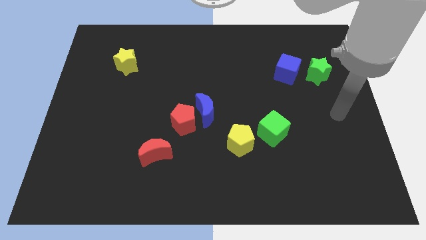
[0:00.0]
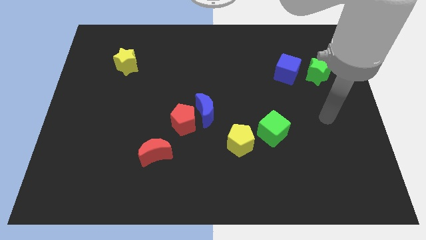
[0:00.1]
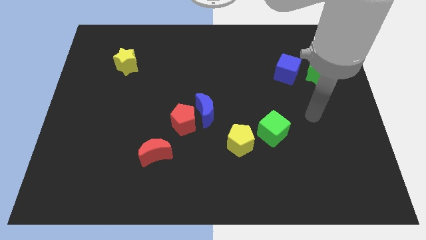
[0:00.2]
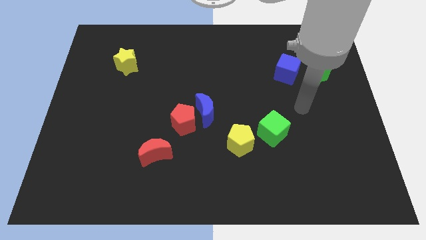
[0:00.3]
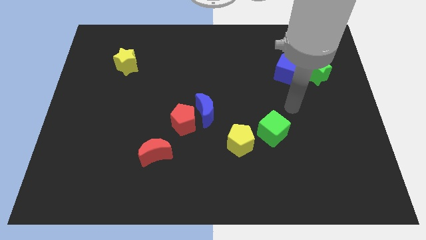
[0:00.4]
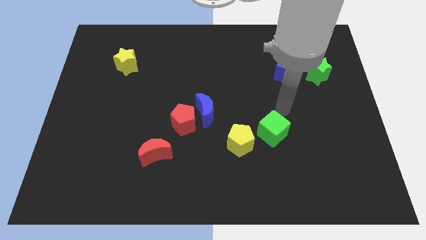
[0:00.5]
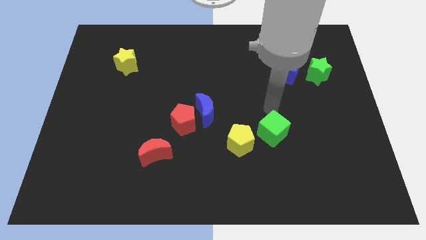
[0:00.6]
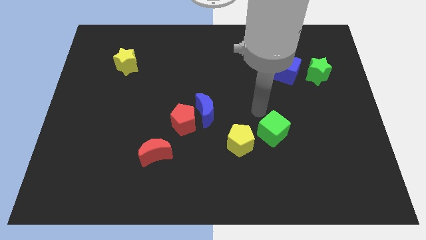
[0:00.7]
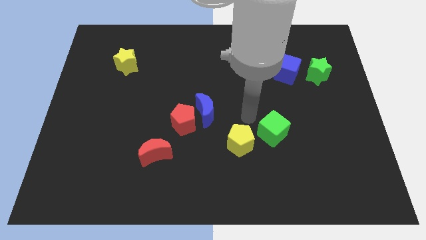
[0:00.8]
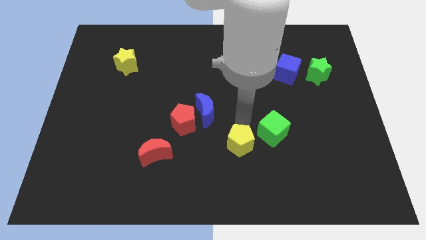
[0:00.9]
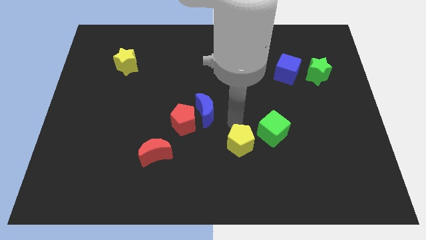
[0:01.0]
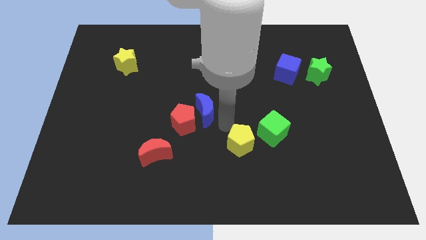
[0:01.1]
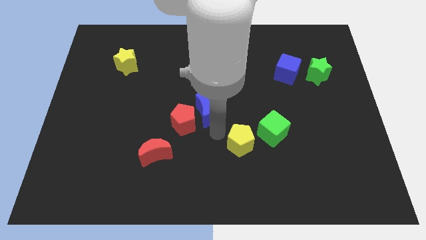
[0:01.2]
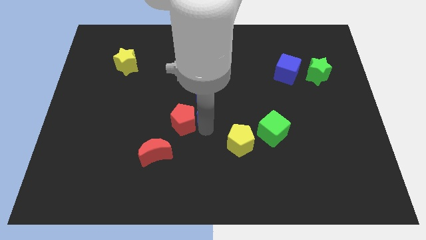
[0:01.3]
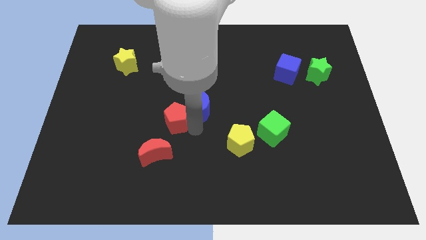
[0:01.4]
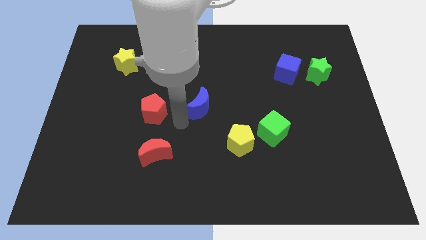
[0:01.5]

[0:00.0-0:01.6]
separate the blue moon from the red pentagon

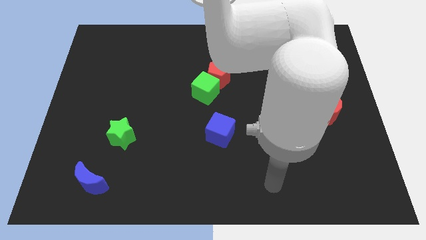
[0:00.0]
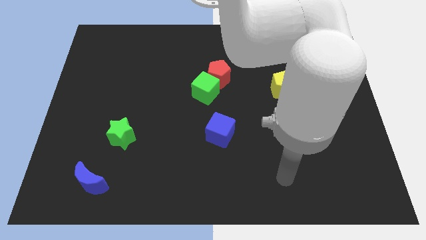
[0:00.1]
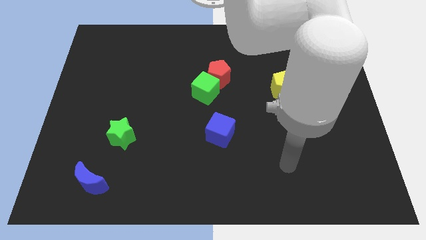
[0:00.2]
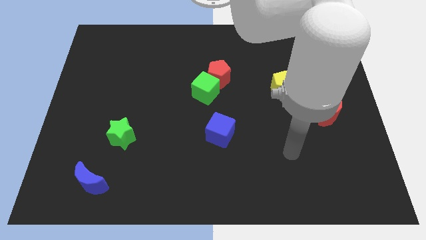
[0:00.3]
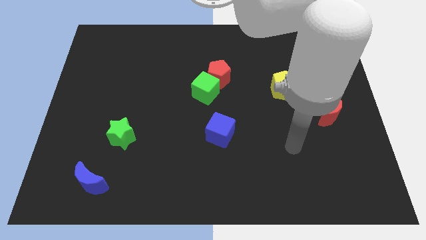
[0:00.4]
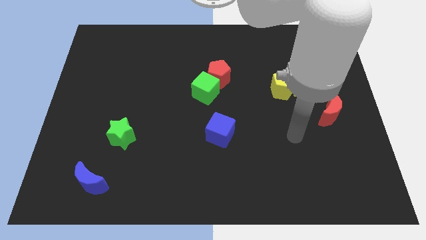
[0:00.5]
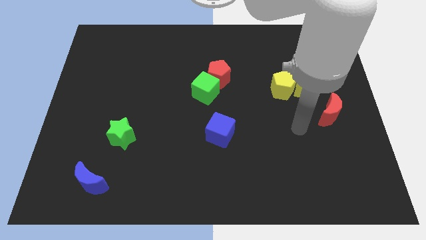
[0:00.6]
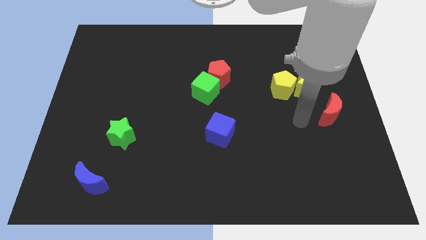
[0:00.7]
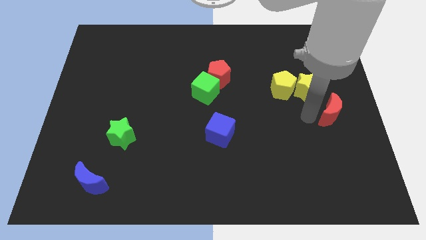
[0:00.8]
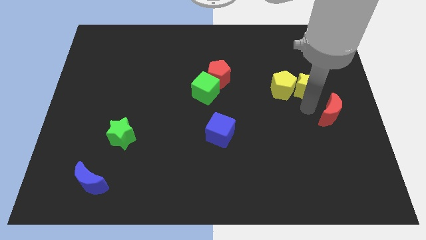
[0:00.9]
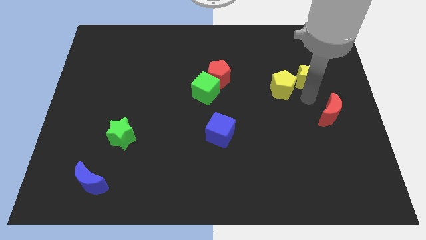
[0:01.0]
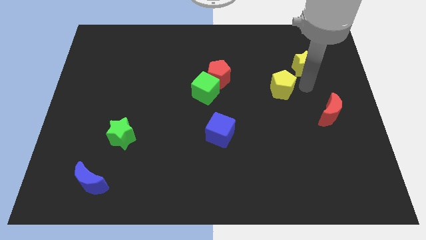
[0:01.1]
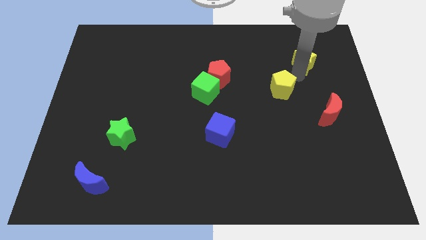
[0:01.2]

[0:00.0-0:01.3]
pull the yellow pentagon apart from the yellow star

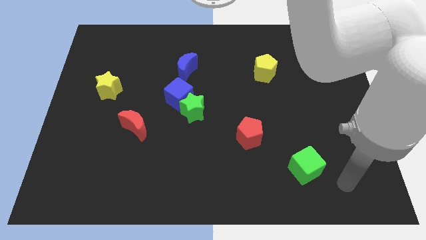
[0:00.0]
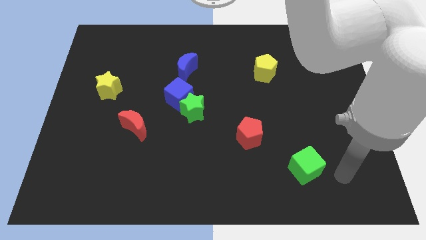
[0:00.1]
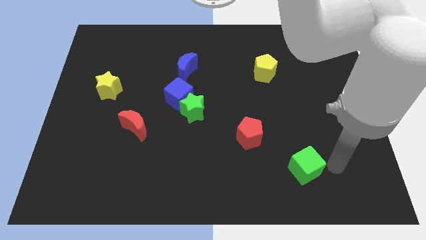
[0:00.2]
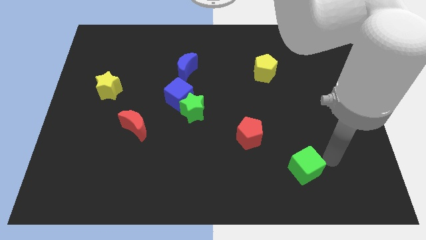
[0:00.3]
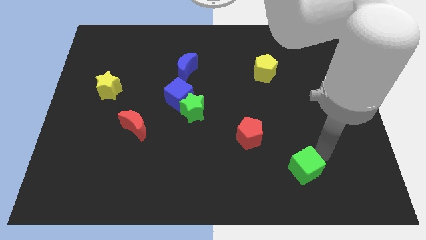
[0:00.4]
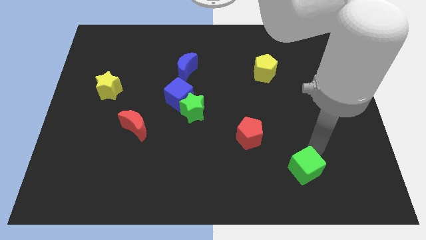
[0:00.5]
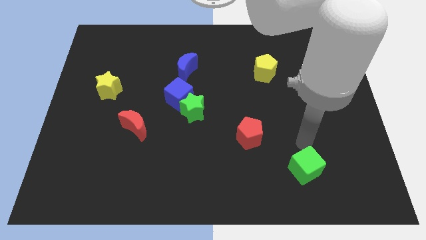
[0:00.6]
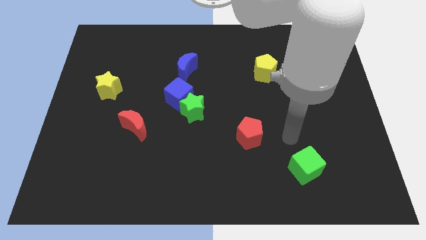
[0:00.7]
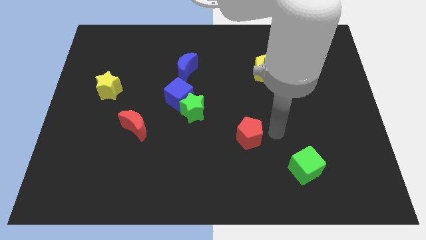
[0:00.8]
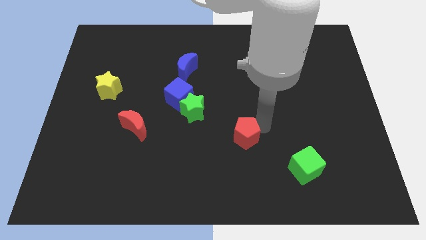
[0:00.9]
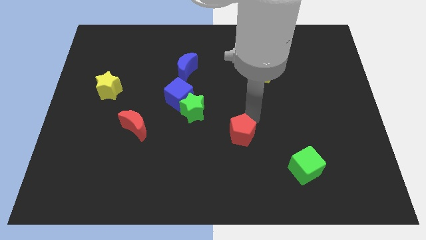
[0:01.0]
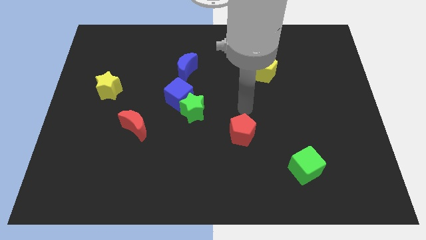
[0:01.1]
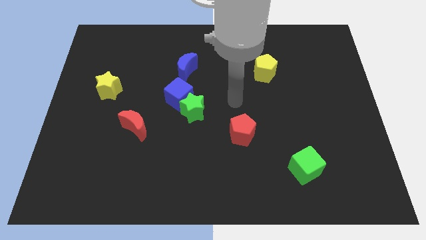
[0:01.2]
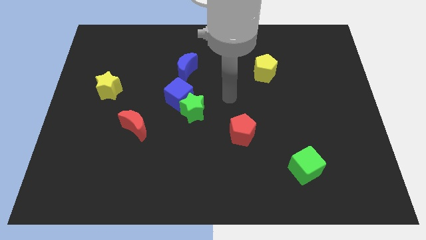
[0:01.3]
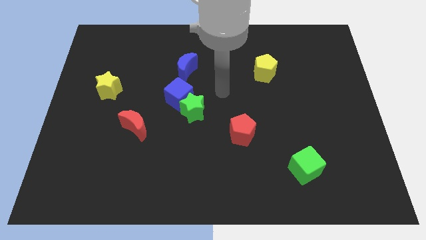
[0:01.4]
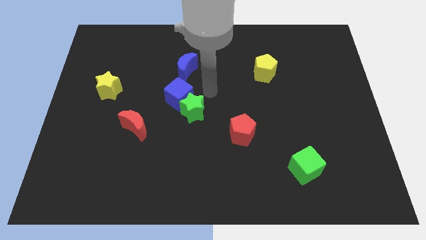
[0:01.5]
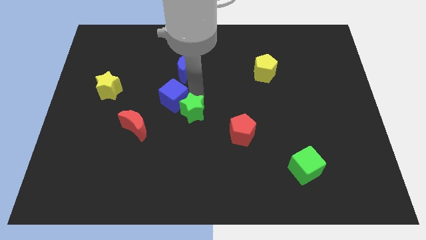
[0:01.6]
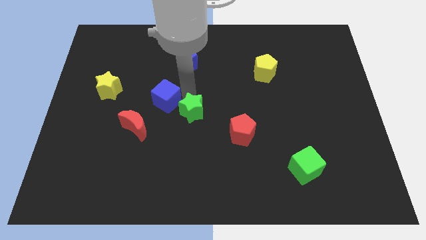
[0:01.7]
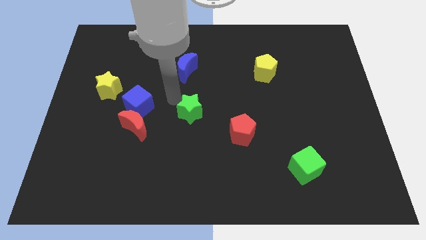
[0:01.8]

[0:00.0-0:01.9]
pull the green star apart from the blue cube

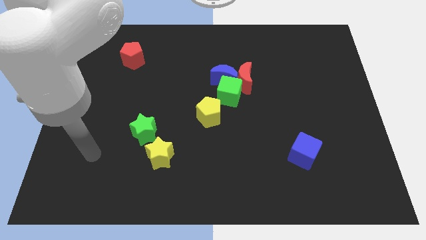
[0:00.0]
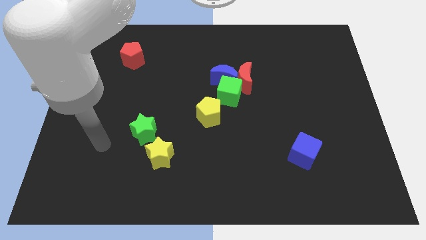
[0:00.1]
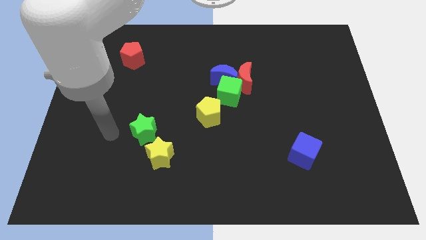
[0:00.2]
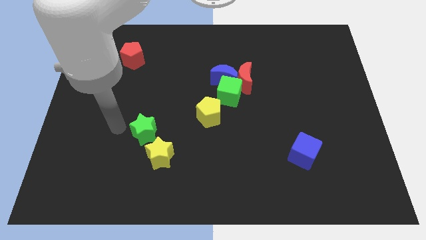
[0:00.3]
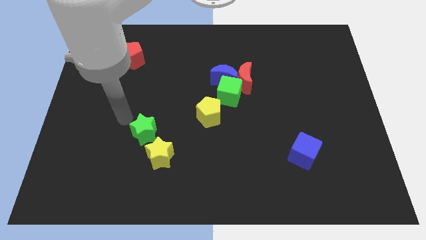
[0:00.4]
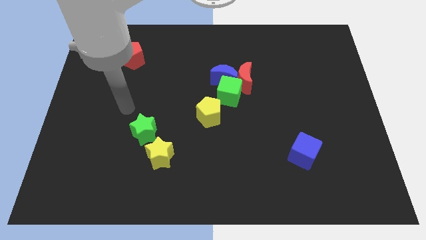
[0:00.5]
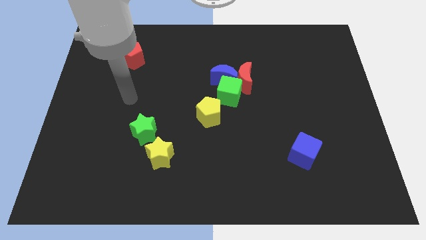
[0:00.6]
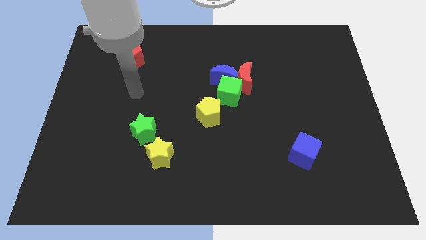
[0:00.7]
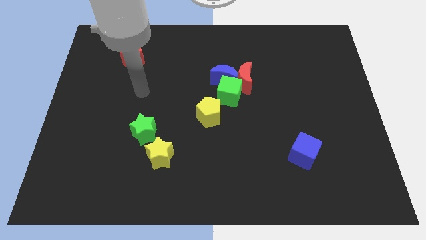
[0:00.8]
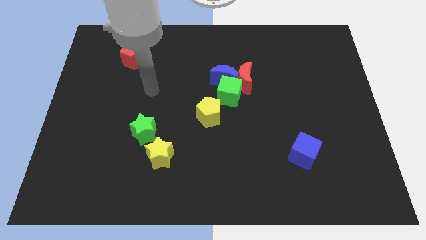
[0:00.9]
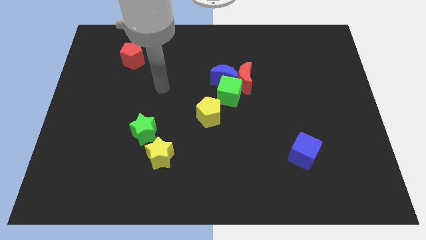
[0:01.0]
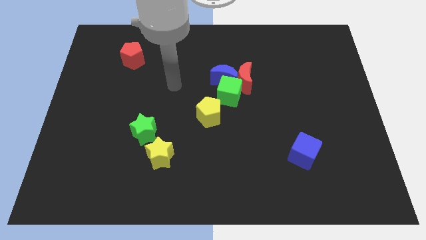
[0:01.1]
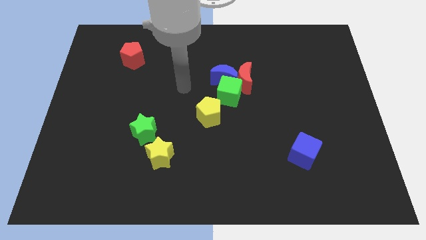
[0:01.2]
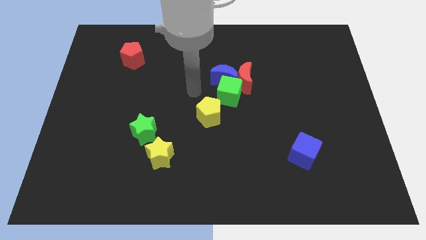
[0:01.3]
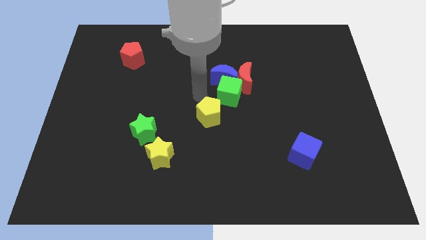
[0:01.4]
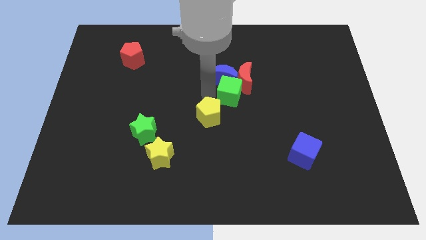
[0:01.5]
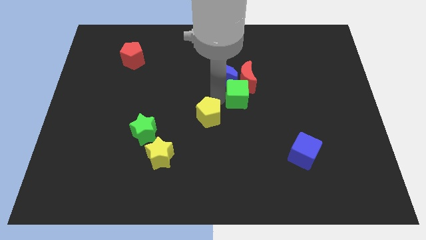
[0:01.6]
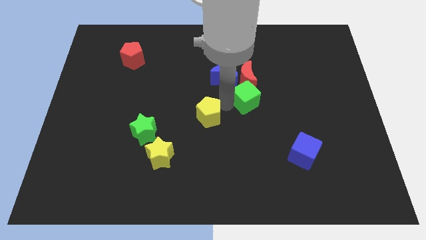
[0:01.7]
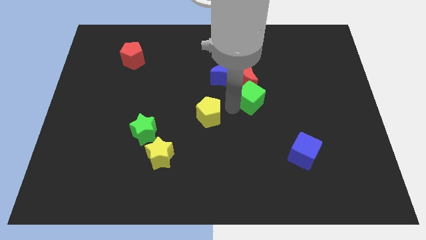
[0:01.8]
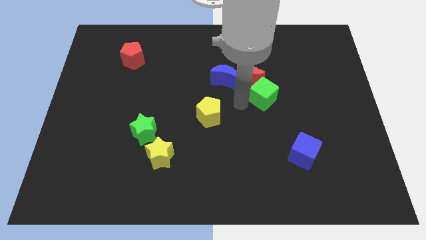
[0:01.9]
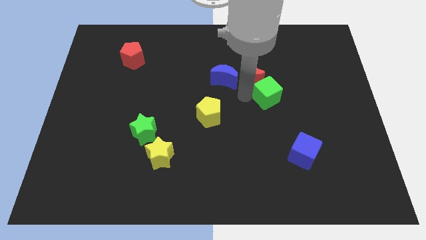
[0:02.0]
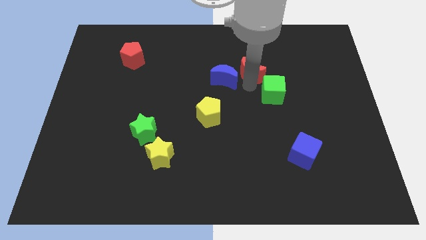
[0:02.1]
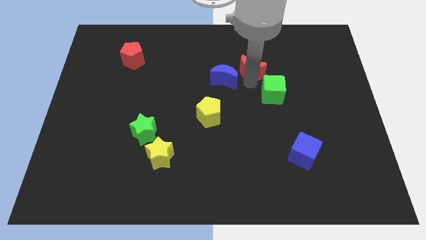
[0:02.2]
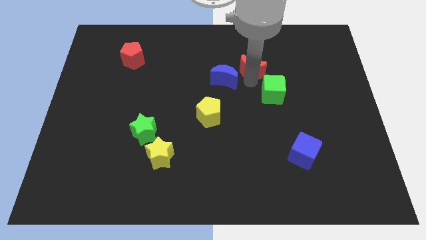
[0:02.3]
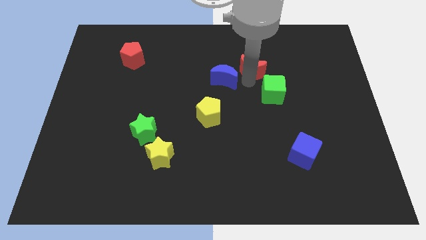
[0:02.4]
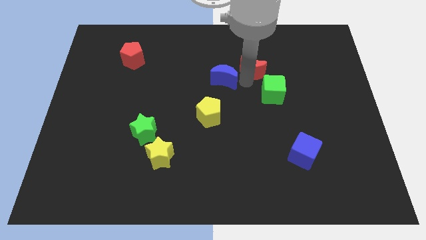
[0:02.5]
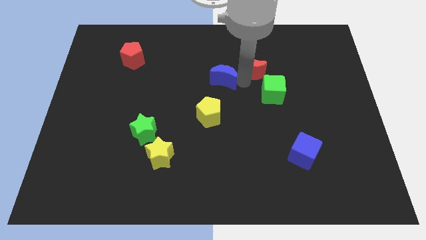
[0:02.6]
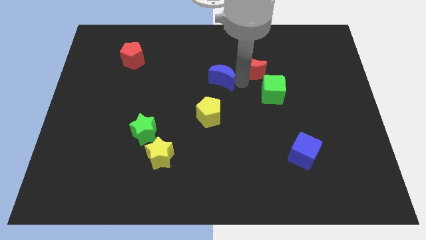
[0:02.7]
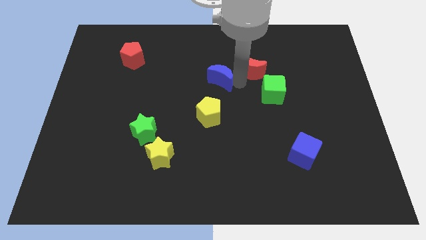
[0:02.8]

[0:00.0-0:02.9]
pull the blue moon apart from the red moon and green cube

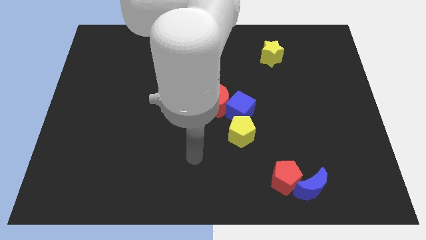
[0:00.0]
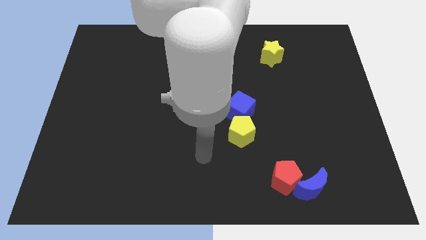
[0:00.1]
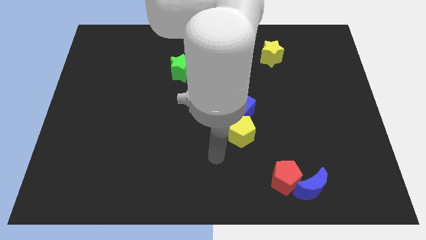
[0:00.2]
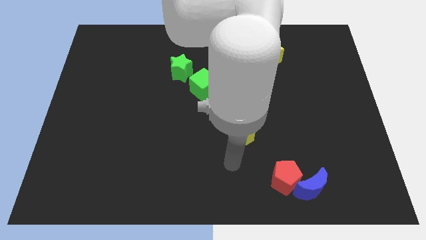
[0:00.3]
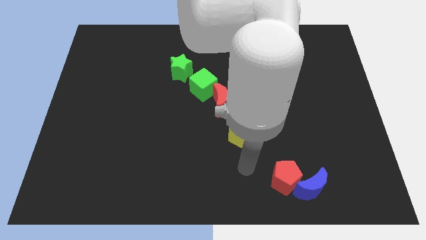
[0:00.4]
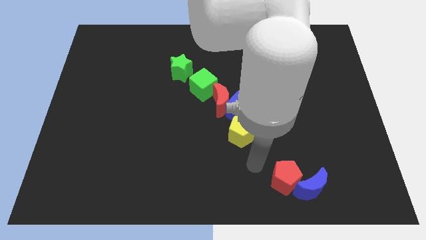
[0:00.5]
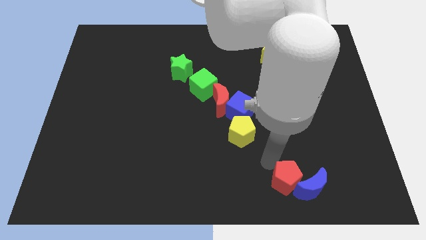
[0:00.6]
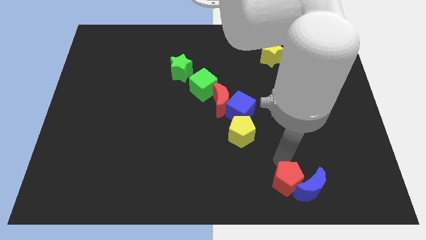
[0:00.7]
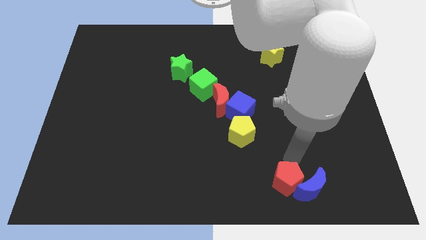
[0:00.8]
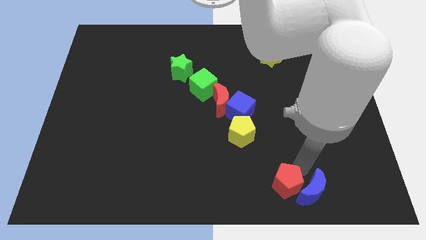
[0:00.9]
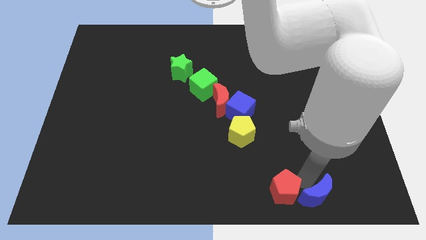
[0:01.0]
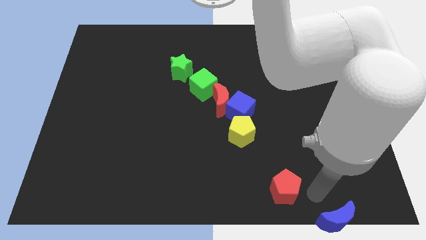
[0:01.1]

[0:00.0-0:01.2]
move the red pentagon away from the blue moon

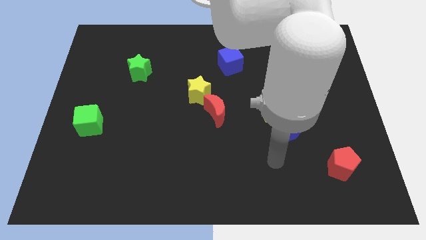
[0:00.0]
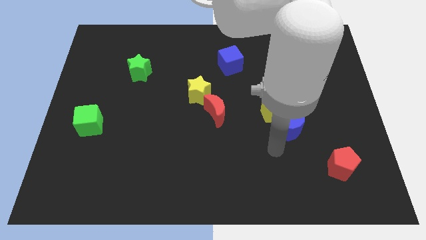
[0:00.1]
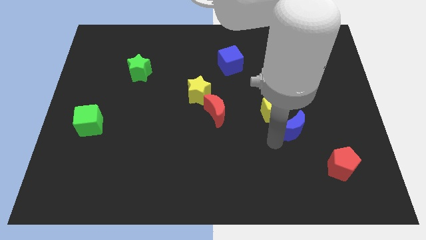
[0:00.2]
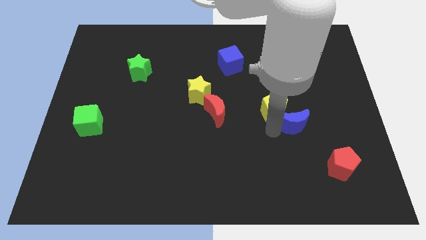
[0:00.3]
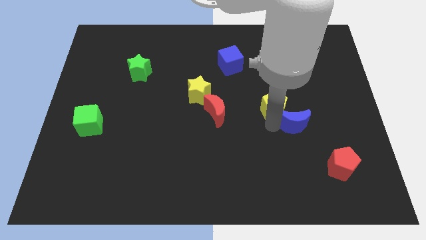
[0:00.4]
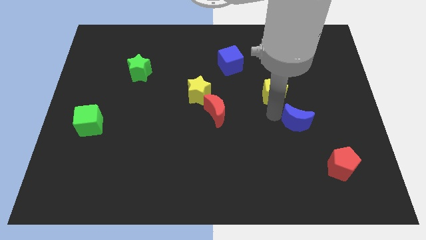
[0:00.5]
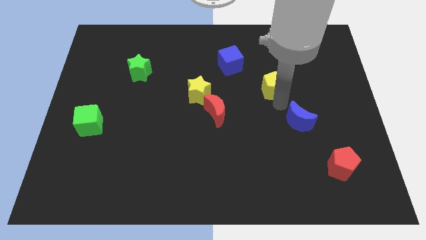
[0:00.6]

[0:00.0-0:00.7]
pull the blue moon apart from the yellow pentagon
